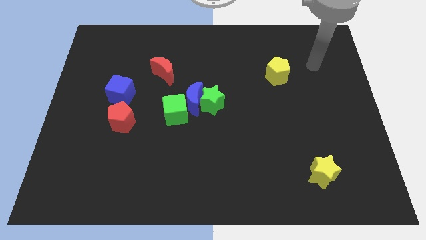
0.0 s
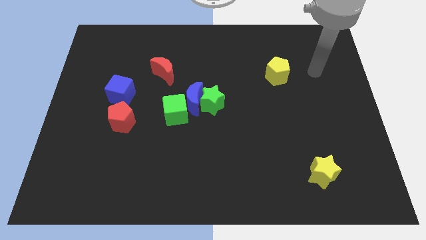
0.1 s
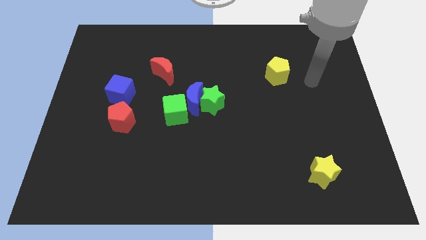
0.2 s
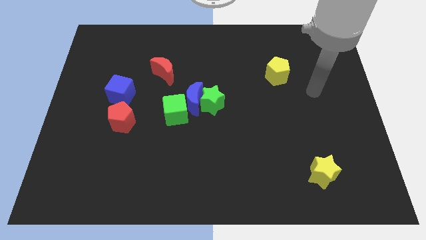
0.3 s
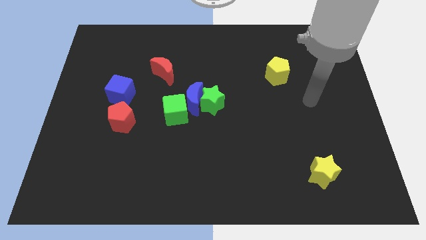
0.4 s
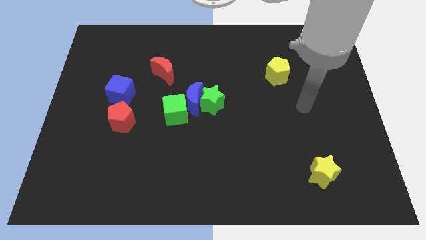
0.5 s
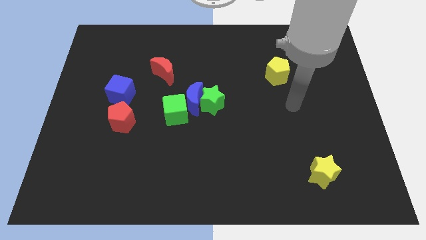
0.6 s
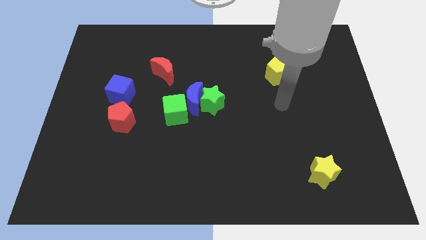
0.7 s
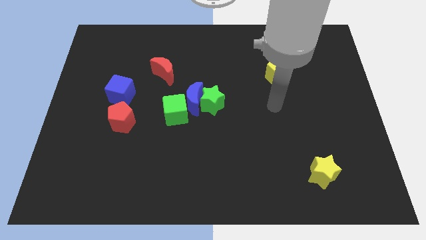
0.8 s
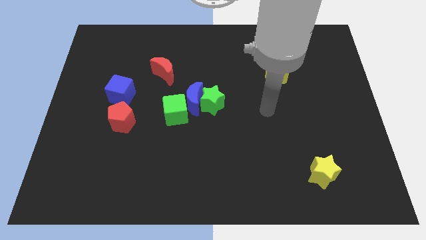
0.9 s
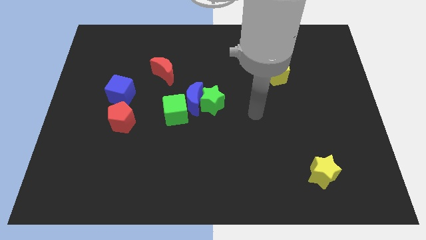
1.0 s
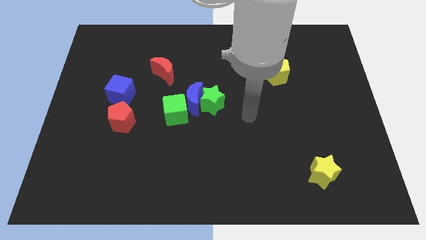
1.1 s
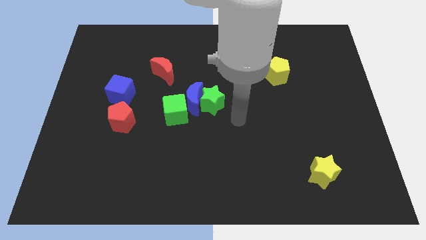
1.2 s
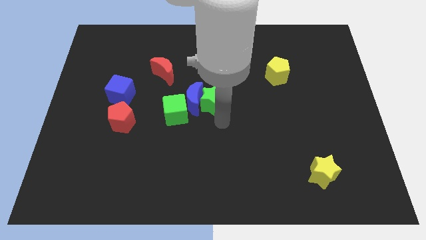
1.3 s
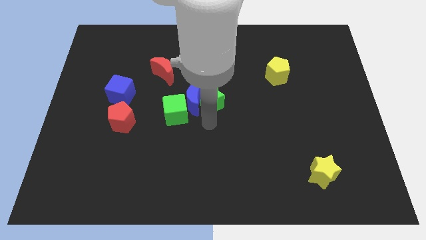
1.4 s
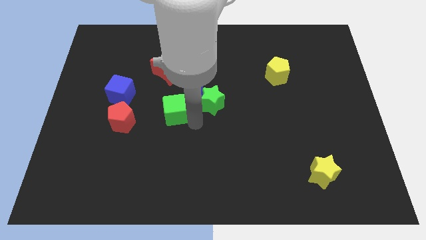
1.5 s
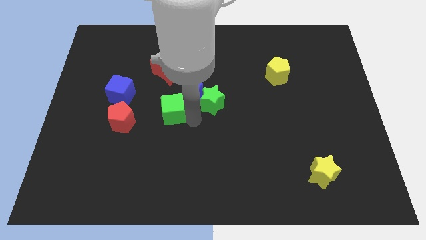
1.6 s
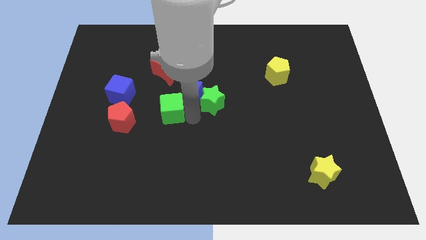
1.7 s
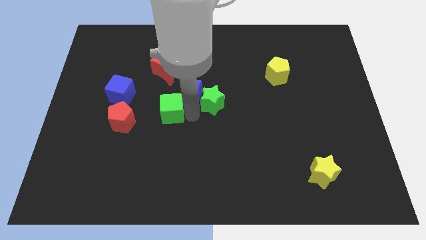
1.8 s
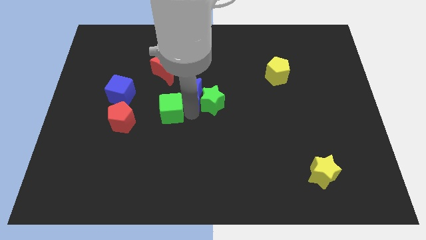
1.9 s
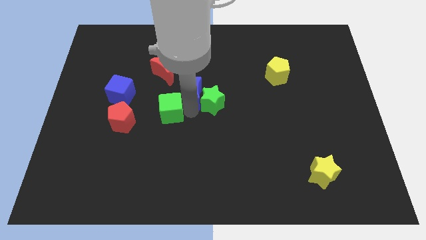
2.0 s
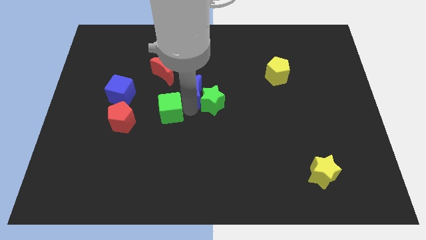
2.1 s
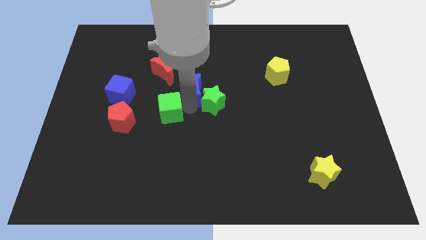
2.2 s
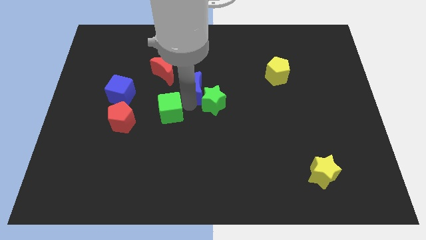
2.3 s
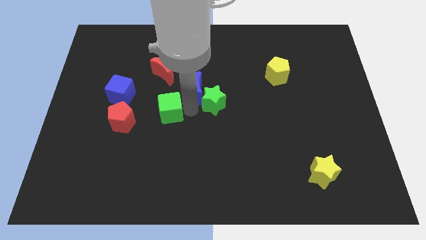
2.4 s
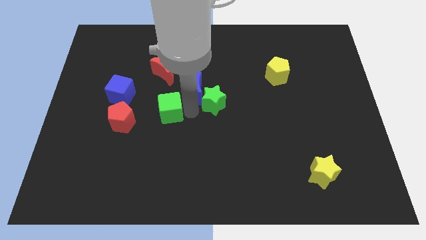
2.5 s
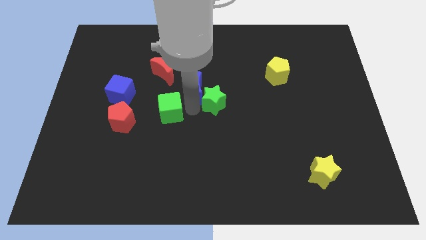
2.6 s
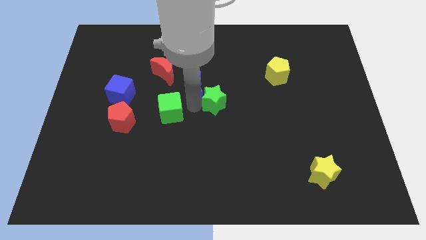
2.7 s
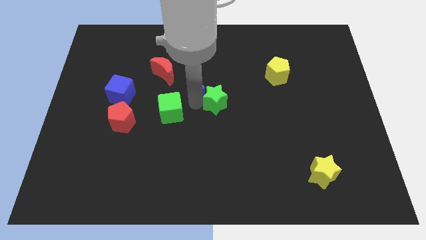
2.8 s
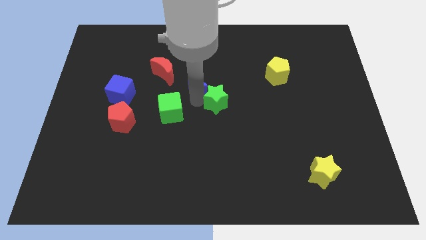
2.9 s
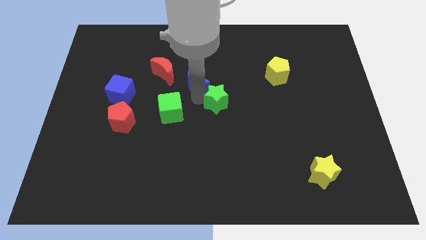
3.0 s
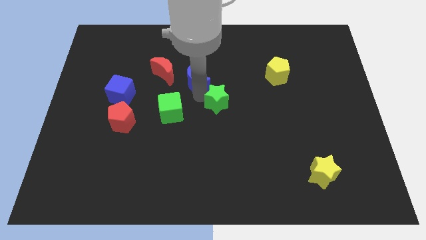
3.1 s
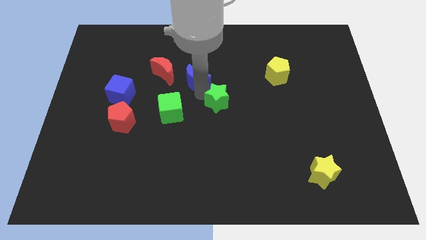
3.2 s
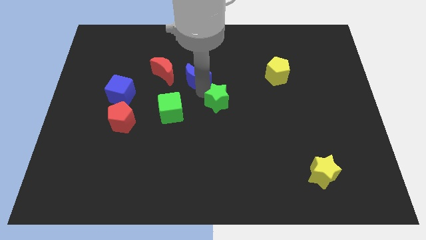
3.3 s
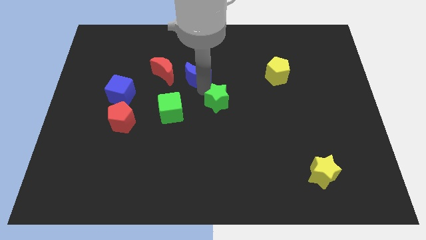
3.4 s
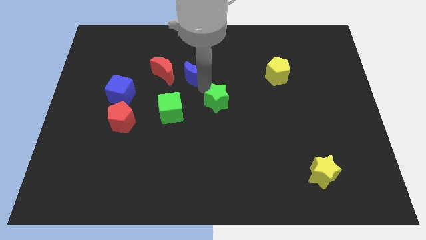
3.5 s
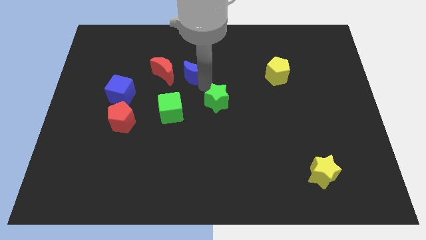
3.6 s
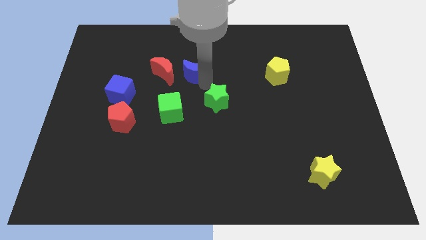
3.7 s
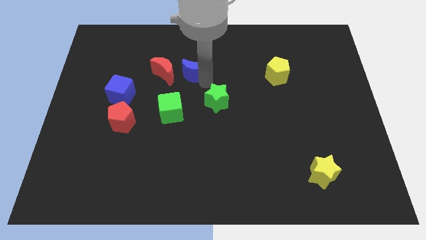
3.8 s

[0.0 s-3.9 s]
move the blue moon away from the green star and green cube

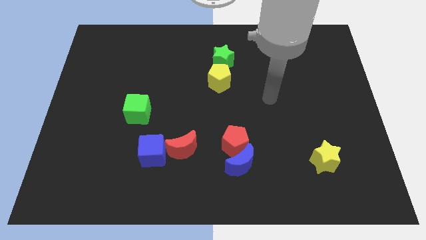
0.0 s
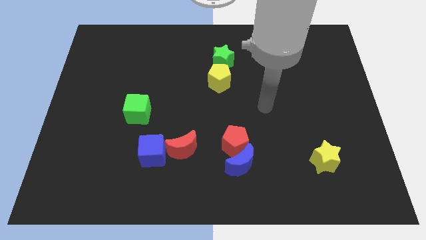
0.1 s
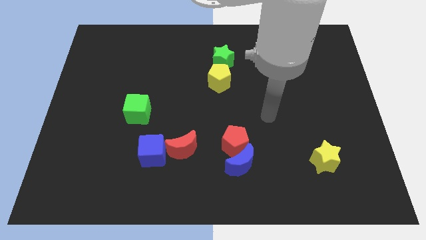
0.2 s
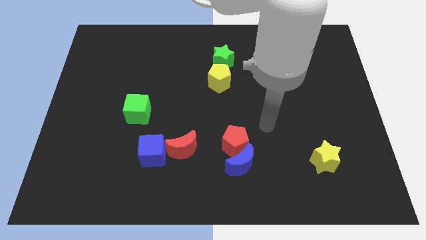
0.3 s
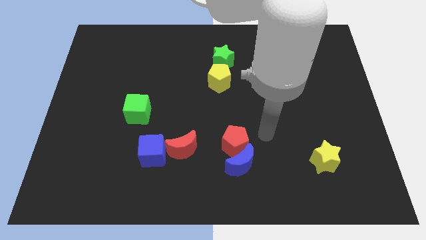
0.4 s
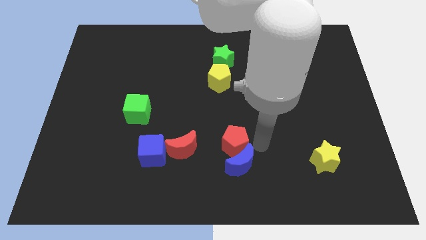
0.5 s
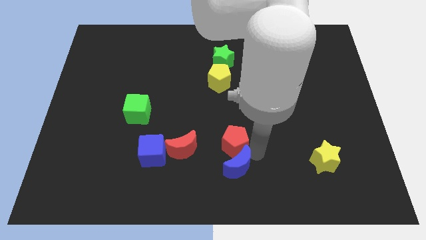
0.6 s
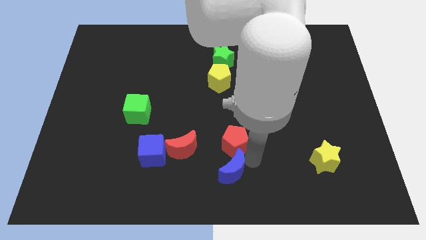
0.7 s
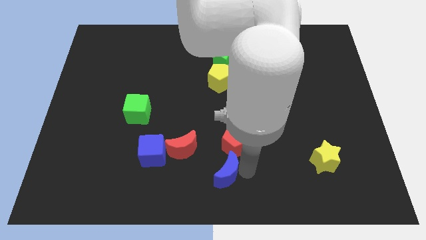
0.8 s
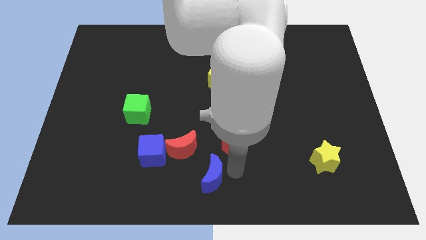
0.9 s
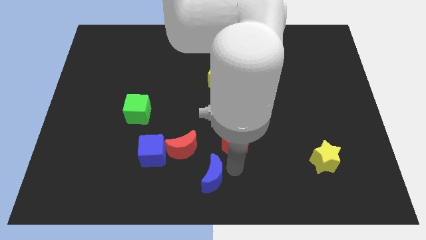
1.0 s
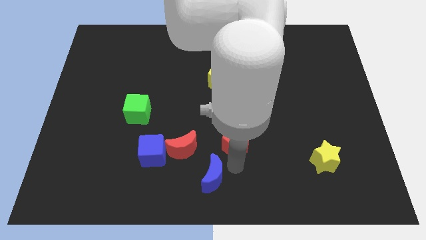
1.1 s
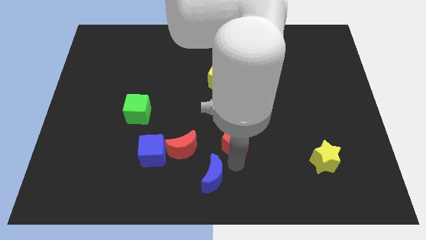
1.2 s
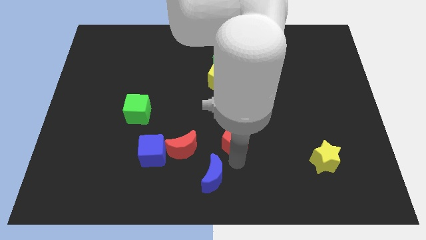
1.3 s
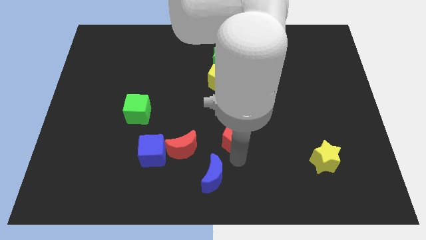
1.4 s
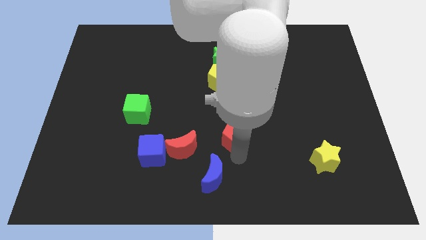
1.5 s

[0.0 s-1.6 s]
pull the red pentagon apart from the blue moon

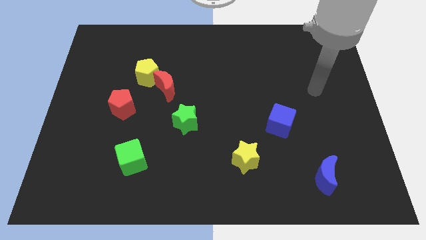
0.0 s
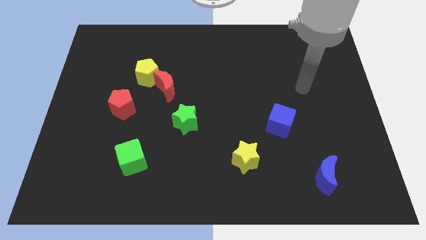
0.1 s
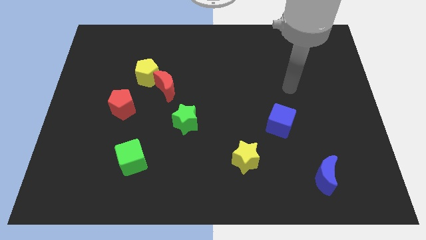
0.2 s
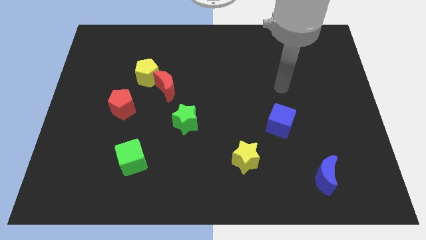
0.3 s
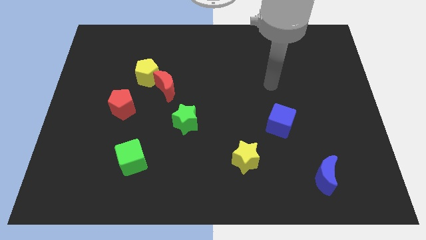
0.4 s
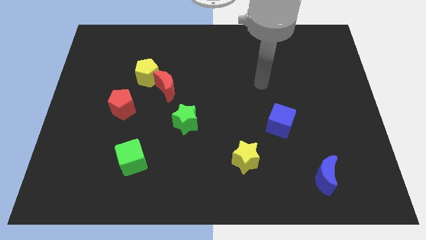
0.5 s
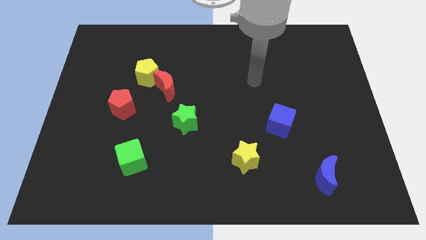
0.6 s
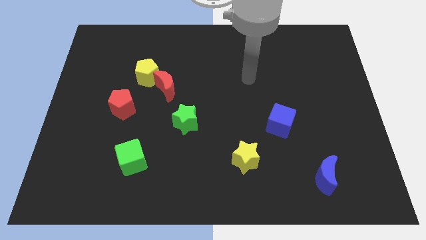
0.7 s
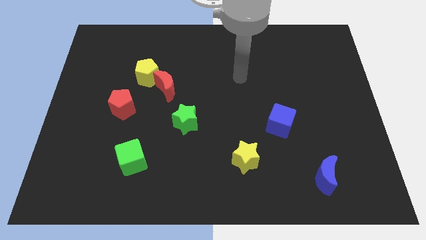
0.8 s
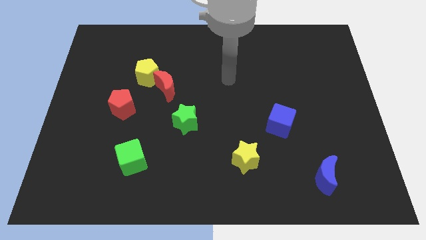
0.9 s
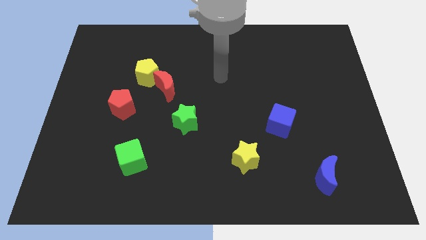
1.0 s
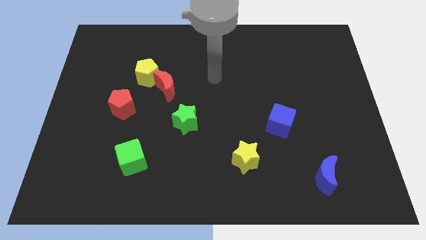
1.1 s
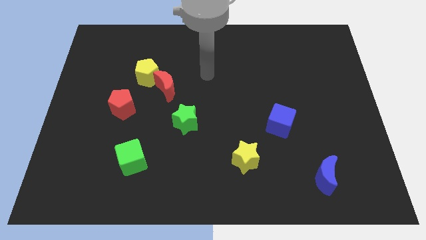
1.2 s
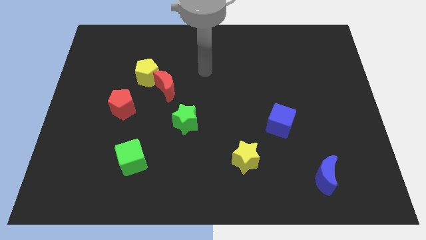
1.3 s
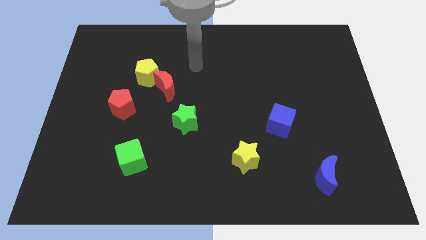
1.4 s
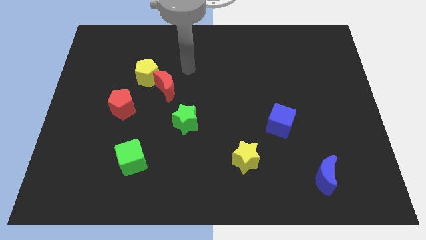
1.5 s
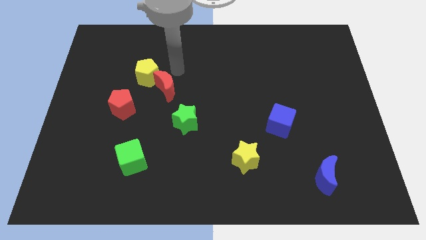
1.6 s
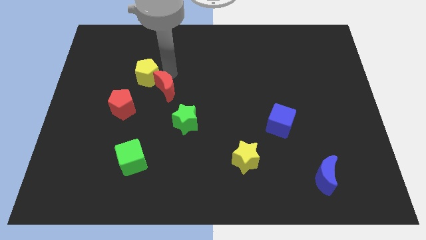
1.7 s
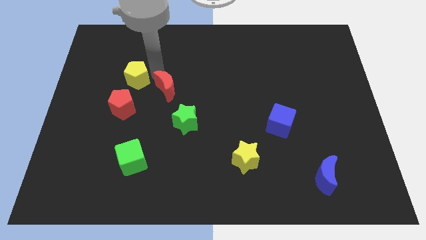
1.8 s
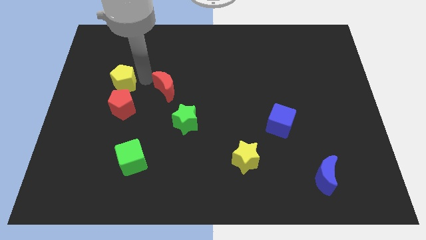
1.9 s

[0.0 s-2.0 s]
separate the red moon from the yellow pentagon

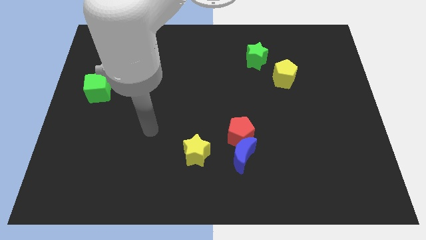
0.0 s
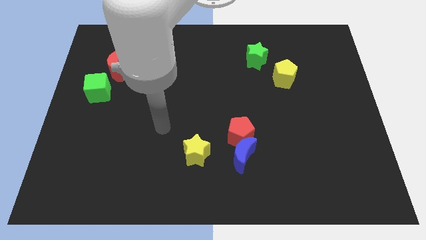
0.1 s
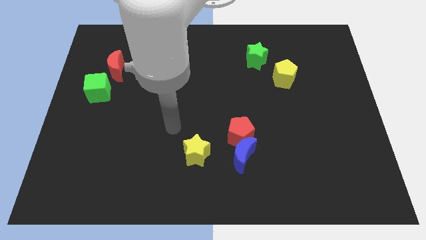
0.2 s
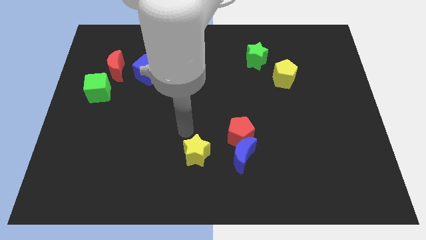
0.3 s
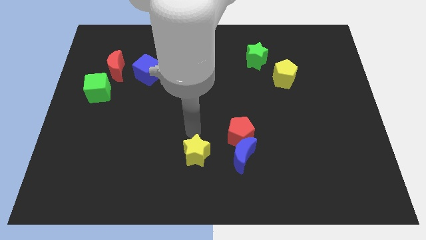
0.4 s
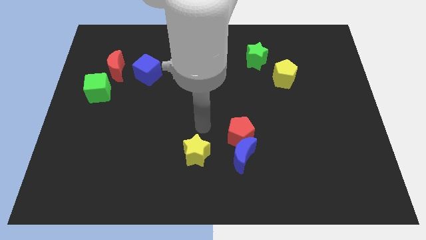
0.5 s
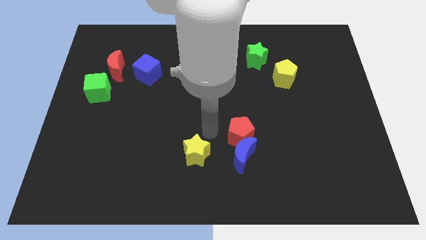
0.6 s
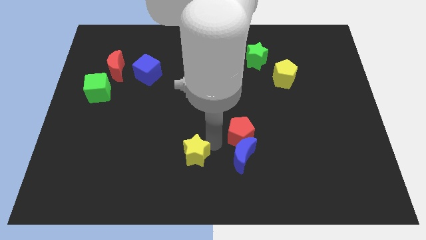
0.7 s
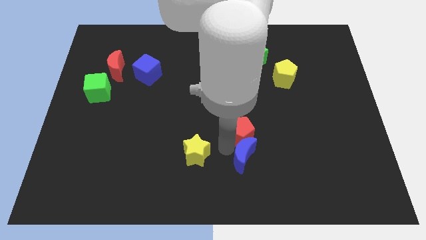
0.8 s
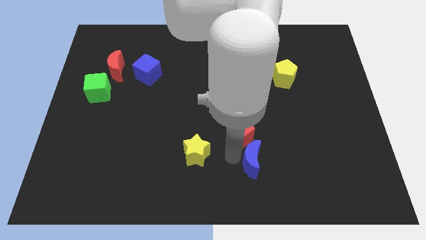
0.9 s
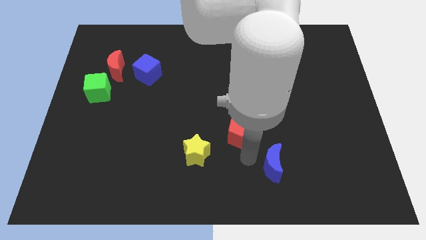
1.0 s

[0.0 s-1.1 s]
move the red pentagon away from the blue moon

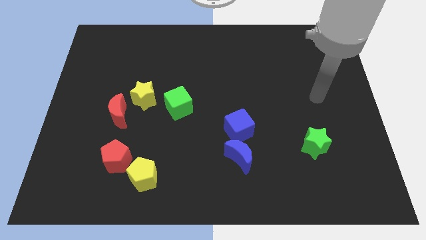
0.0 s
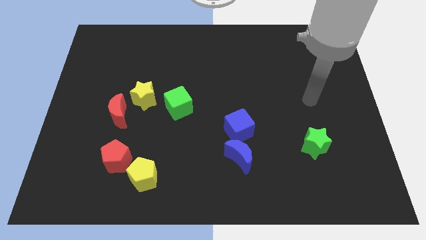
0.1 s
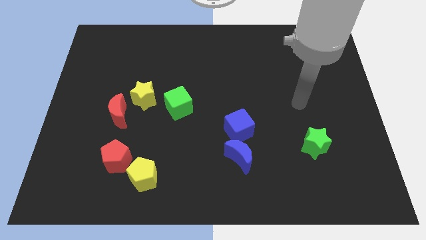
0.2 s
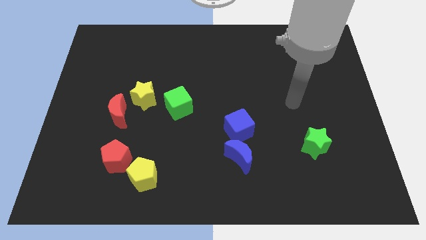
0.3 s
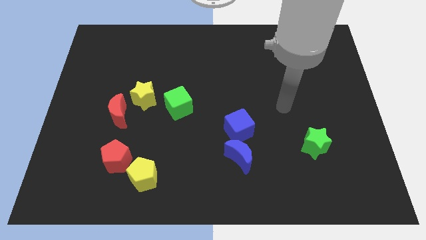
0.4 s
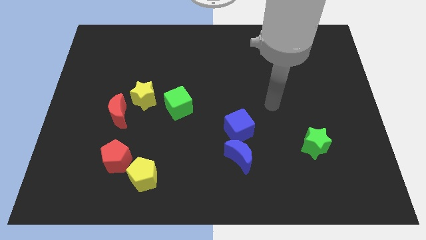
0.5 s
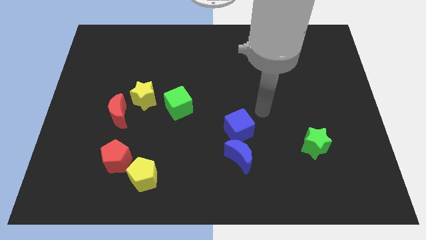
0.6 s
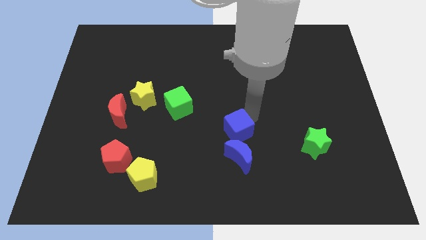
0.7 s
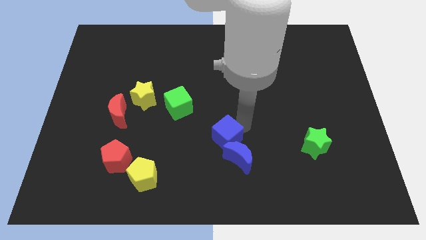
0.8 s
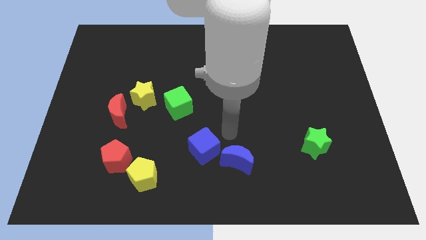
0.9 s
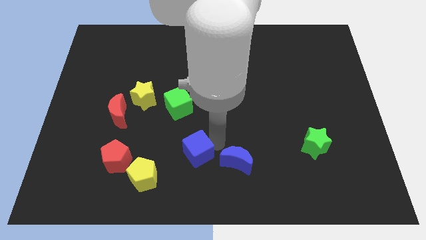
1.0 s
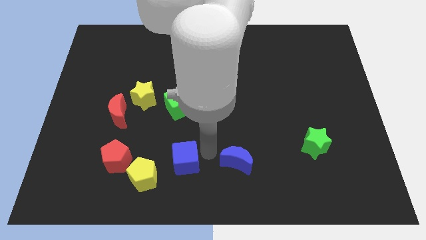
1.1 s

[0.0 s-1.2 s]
separate the blue moon from the blue cube
